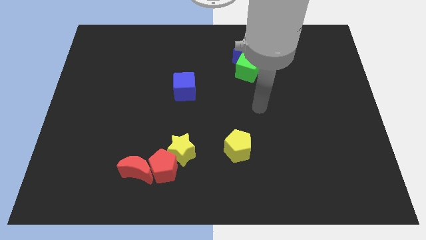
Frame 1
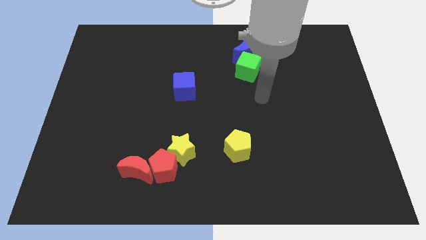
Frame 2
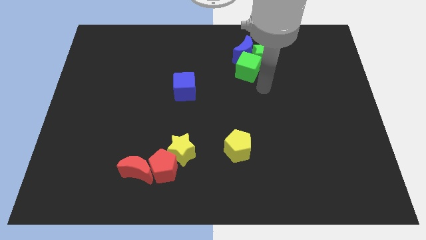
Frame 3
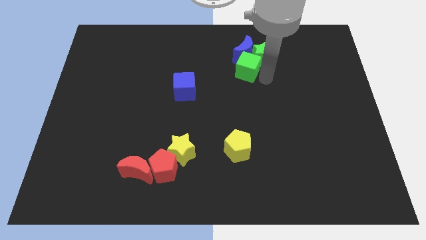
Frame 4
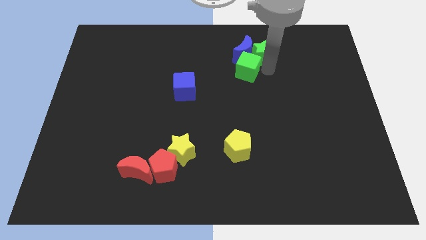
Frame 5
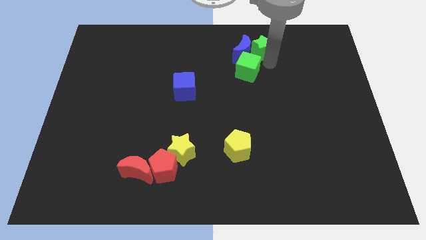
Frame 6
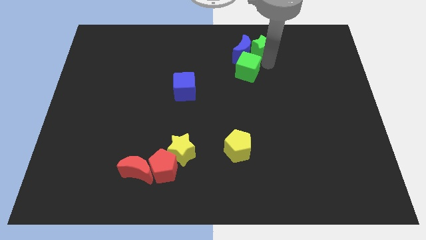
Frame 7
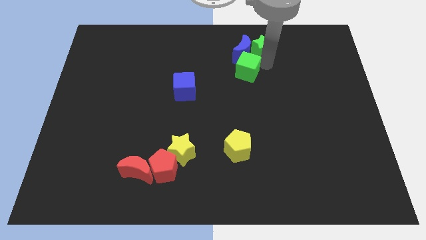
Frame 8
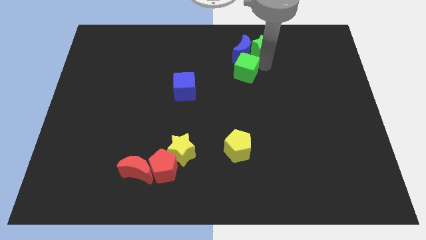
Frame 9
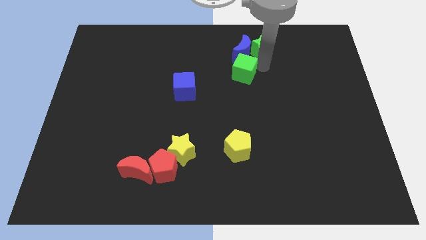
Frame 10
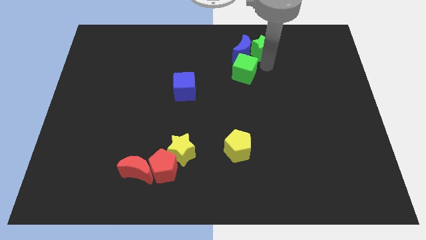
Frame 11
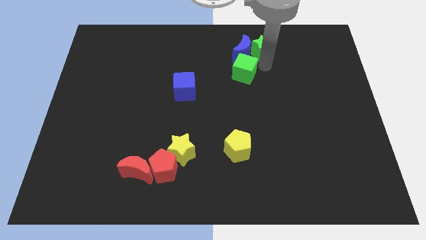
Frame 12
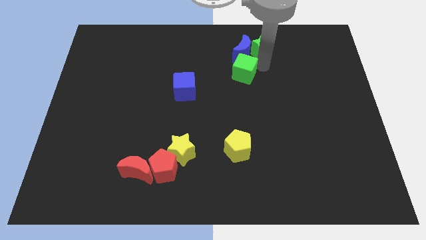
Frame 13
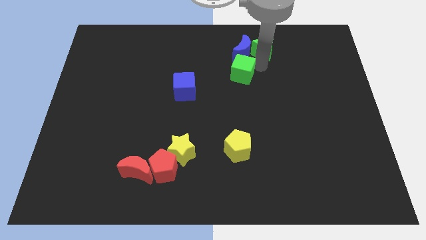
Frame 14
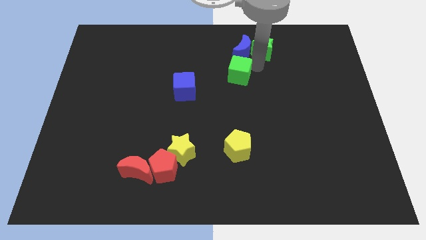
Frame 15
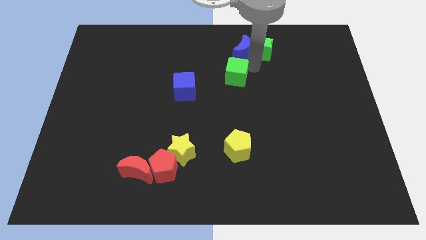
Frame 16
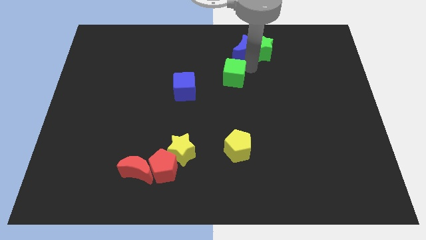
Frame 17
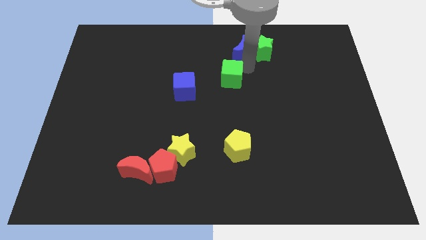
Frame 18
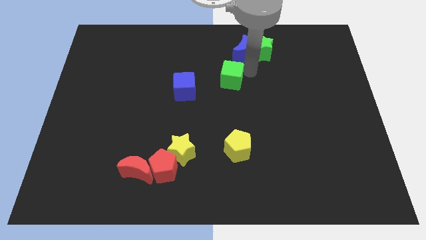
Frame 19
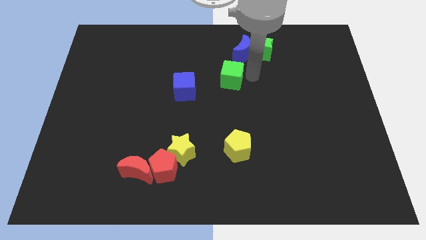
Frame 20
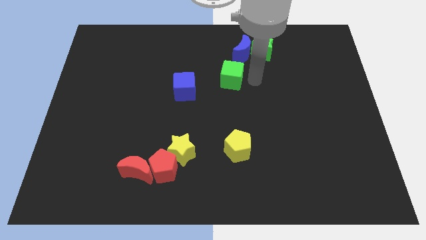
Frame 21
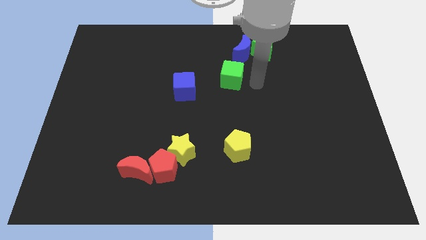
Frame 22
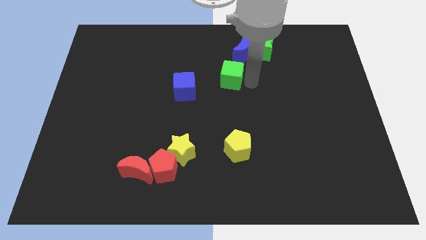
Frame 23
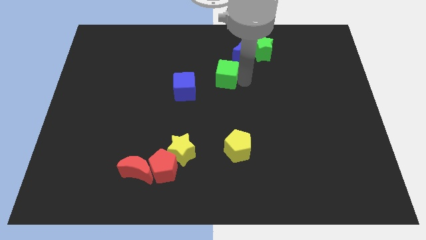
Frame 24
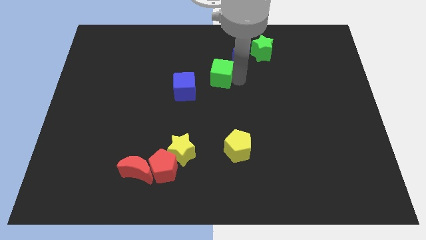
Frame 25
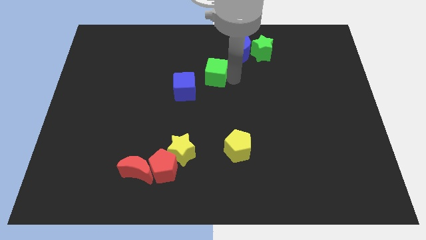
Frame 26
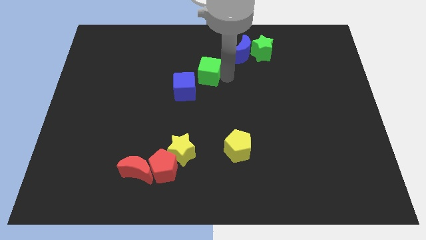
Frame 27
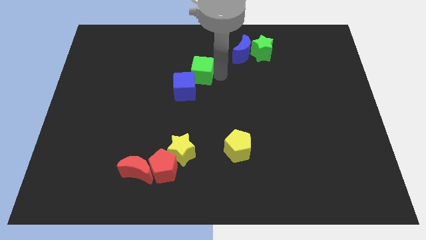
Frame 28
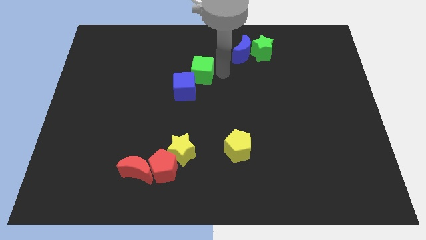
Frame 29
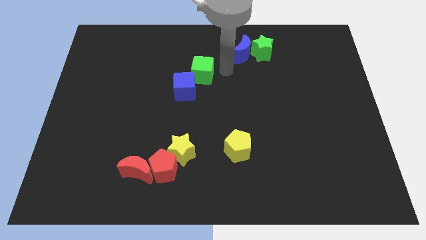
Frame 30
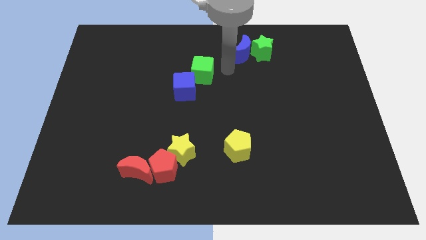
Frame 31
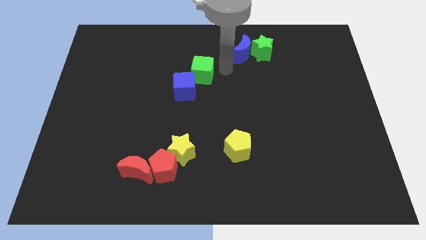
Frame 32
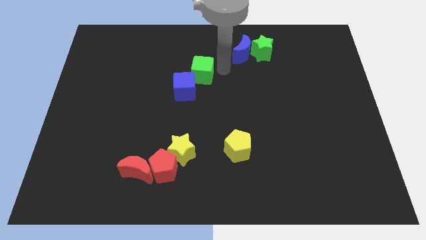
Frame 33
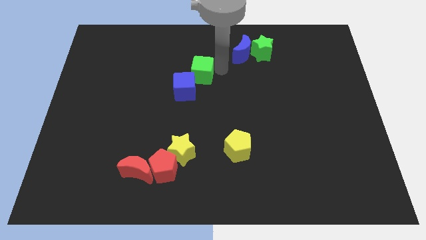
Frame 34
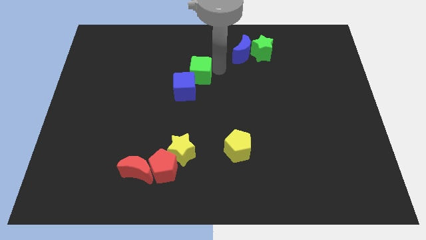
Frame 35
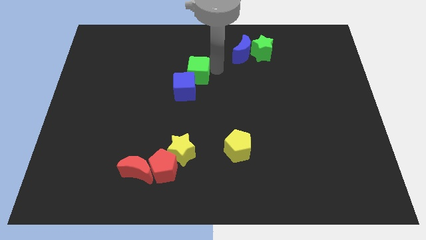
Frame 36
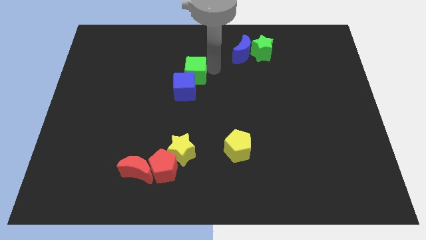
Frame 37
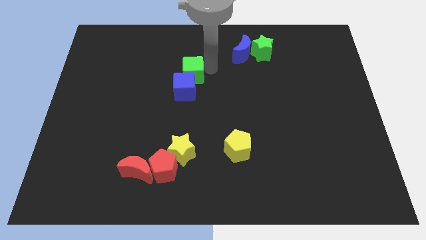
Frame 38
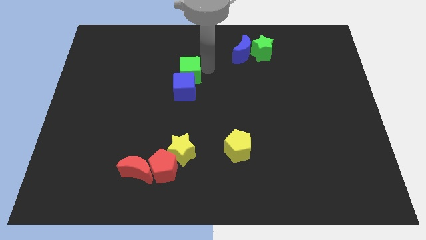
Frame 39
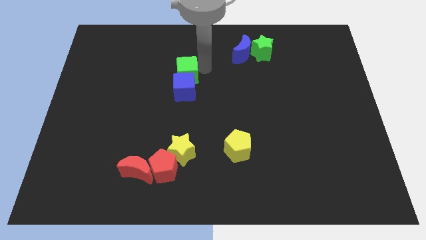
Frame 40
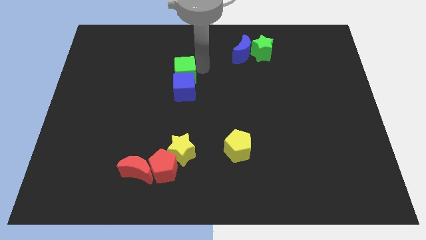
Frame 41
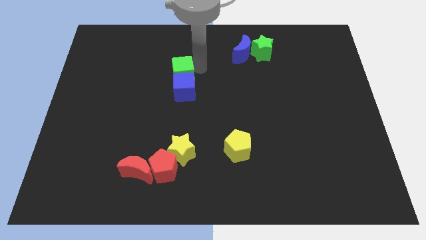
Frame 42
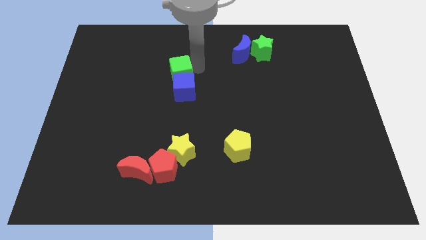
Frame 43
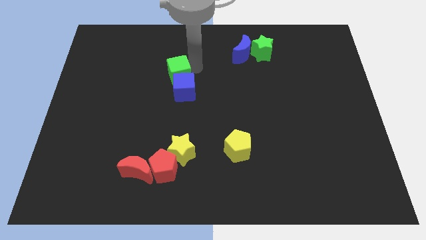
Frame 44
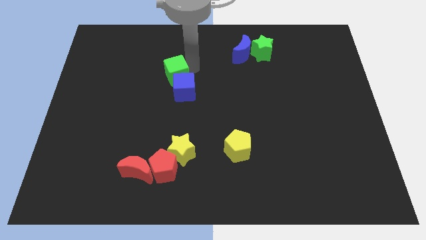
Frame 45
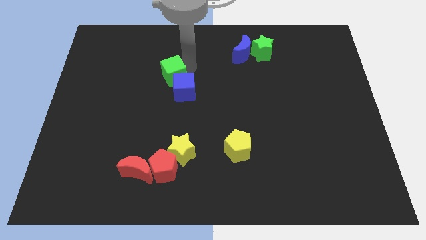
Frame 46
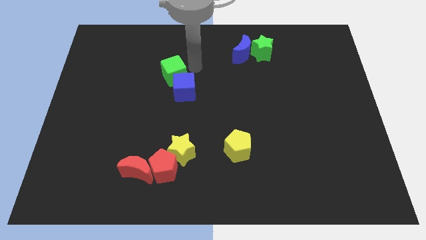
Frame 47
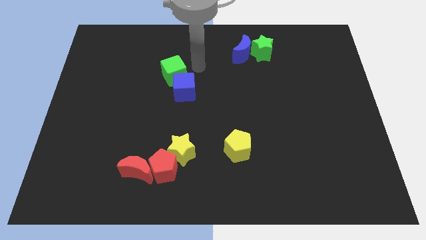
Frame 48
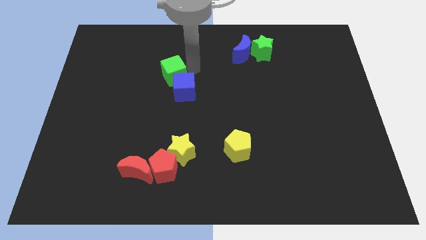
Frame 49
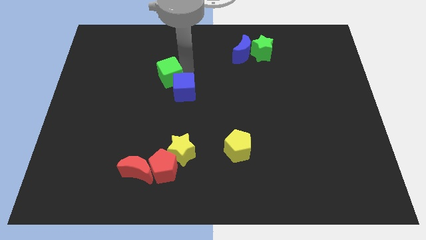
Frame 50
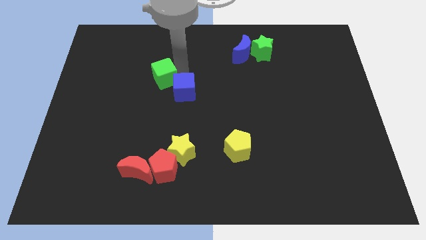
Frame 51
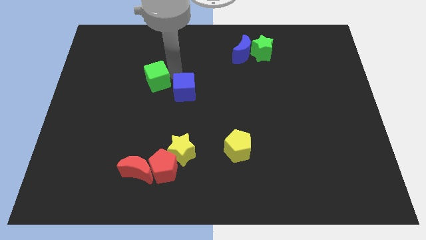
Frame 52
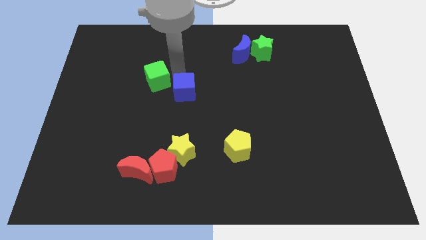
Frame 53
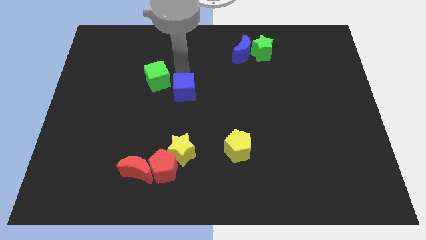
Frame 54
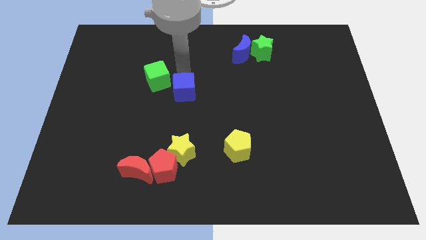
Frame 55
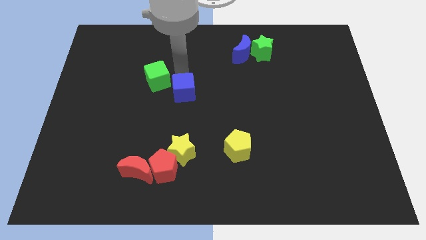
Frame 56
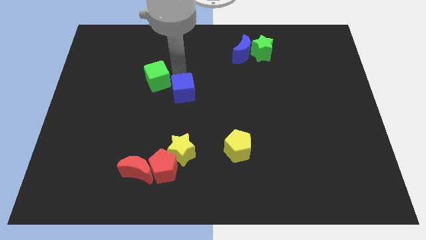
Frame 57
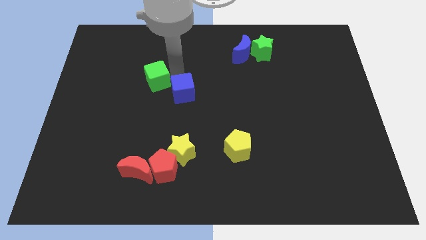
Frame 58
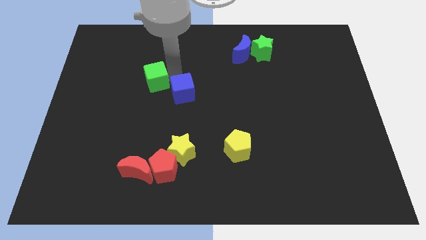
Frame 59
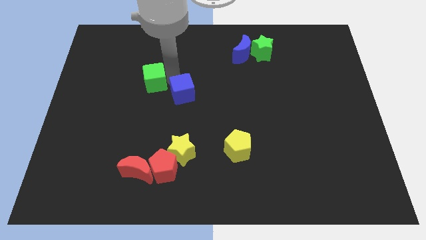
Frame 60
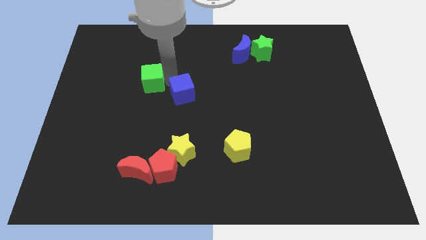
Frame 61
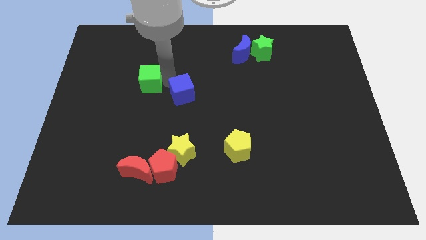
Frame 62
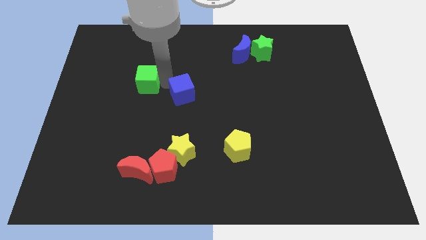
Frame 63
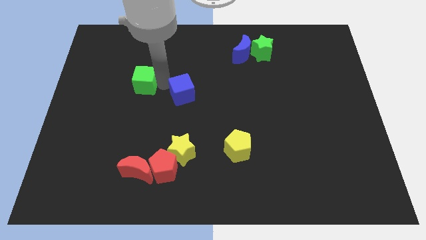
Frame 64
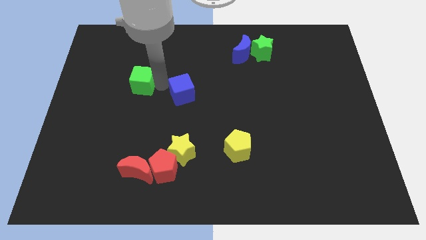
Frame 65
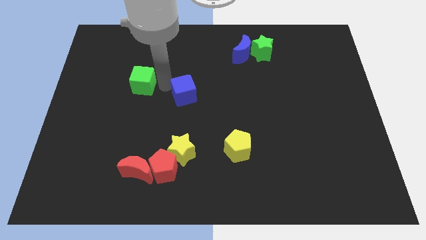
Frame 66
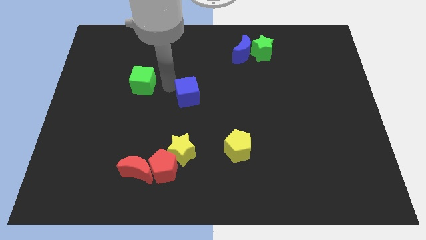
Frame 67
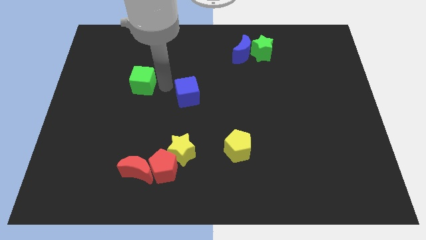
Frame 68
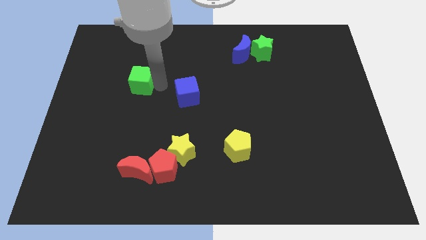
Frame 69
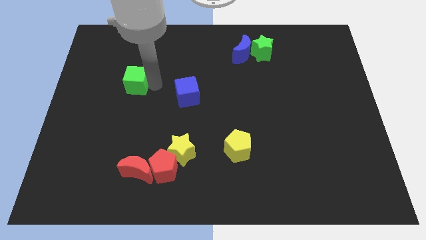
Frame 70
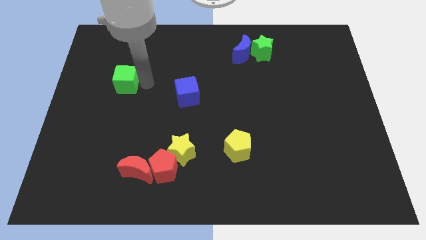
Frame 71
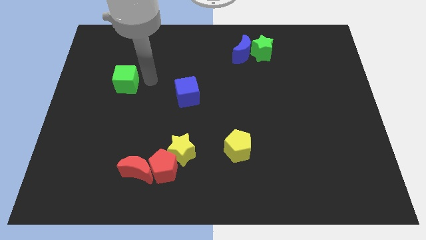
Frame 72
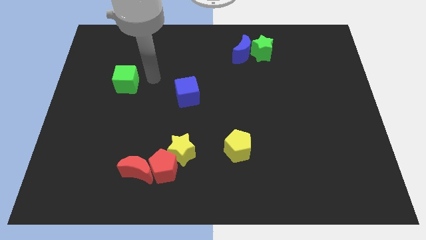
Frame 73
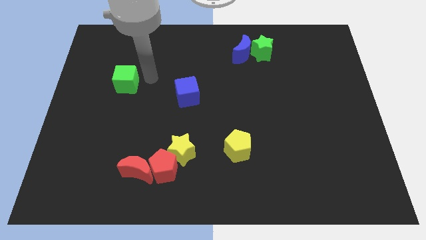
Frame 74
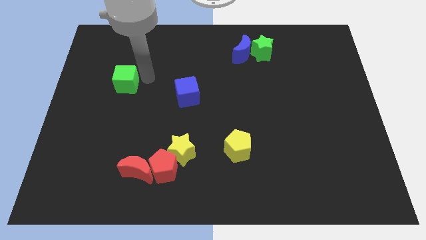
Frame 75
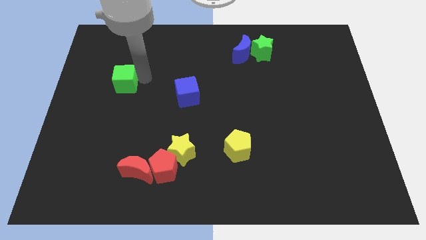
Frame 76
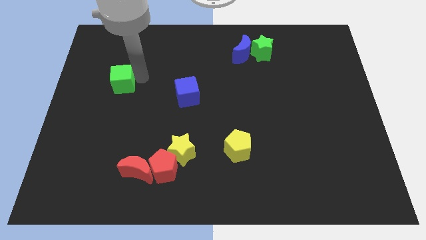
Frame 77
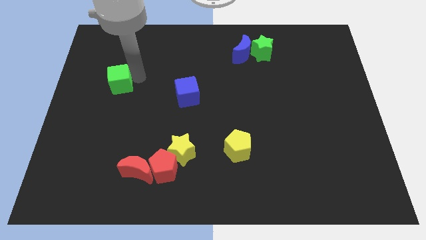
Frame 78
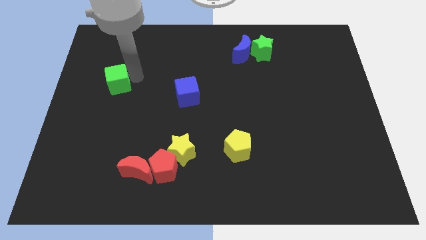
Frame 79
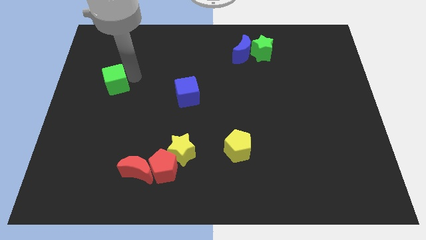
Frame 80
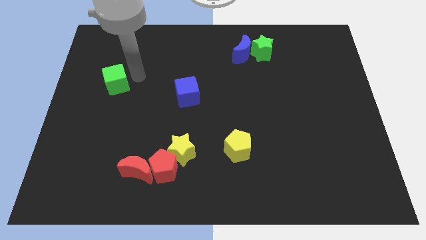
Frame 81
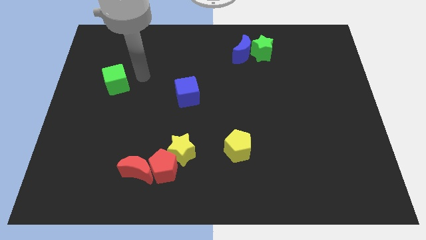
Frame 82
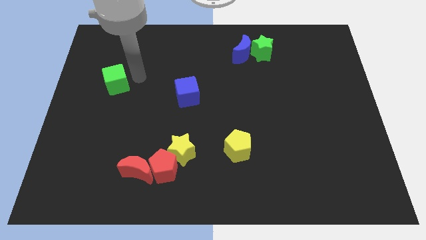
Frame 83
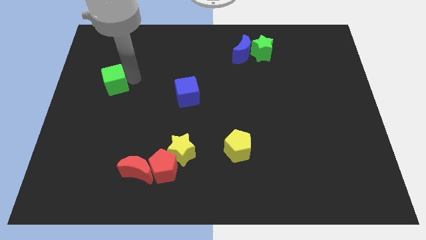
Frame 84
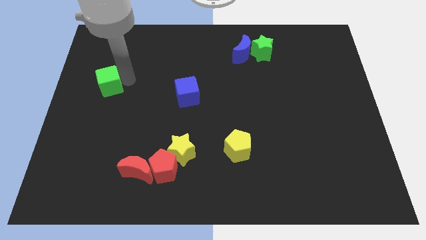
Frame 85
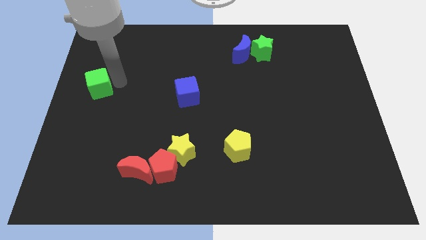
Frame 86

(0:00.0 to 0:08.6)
put the green cube to the center left
